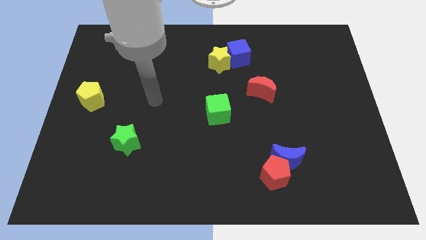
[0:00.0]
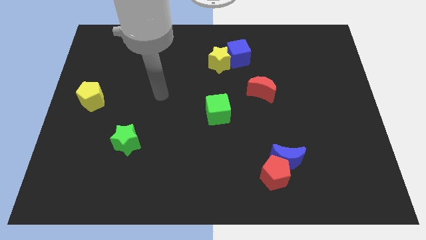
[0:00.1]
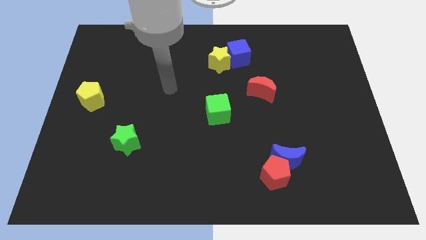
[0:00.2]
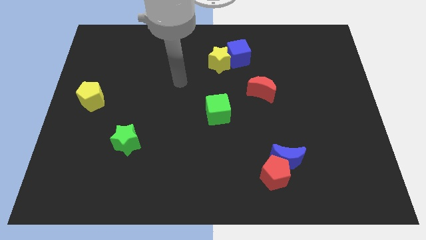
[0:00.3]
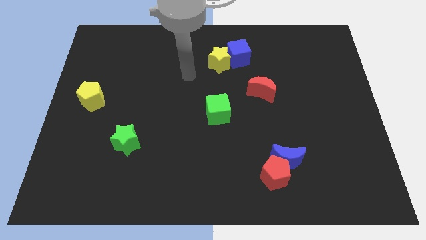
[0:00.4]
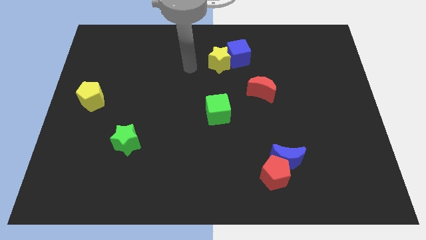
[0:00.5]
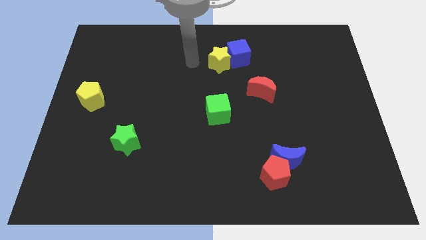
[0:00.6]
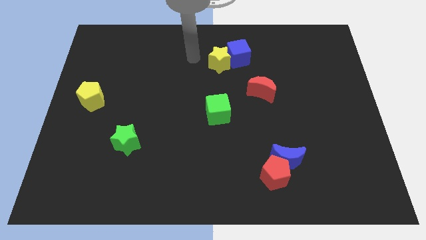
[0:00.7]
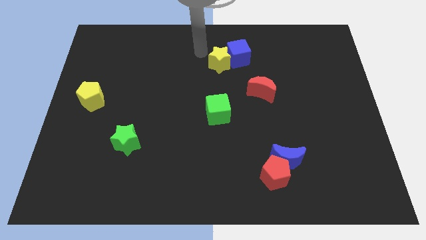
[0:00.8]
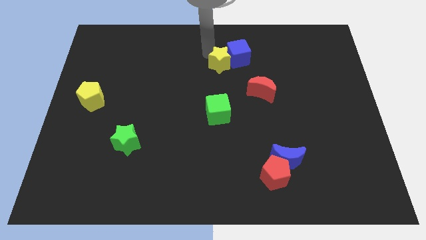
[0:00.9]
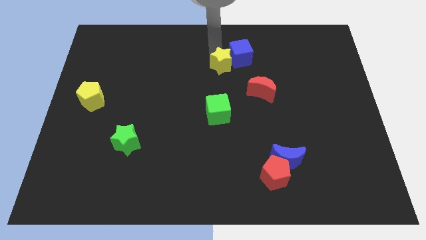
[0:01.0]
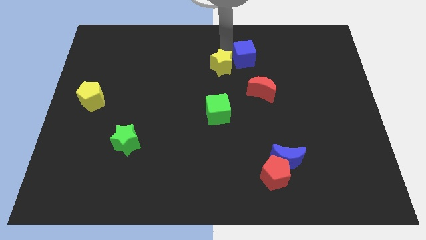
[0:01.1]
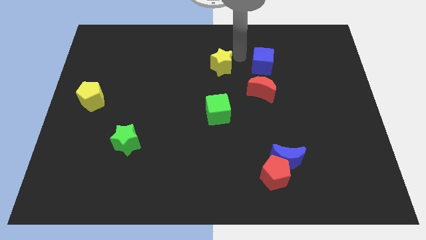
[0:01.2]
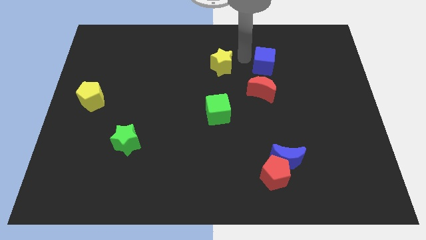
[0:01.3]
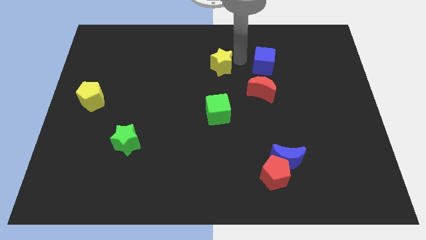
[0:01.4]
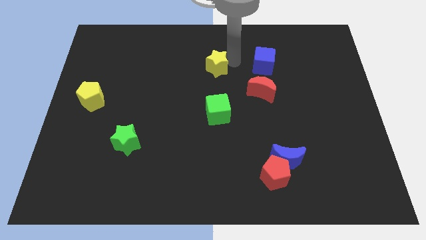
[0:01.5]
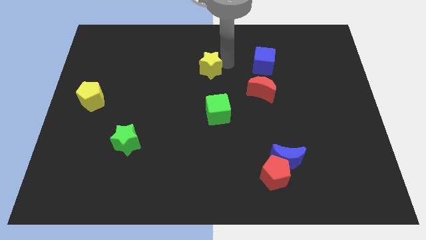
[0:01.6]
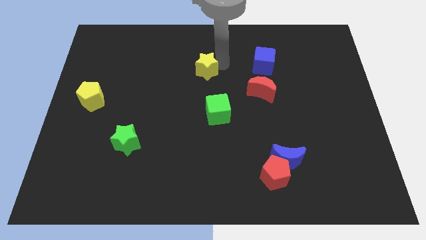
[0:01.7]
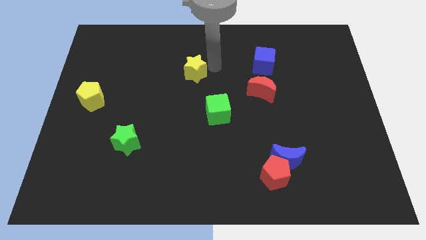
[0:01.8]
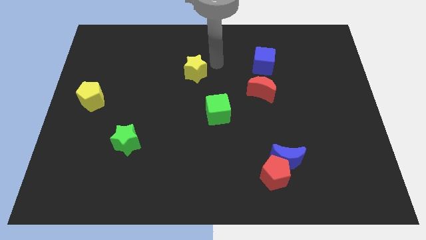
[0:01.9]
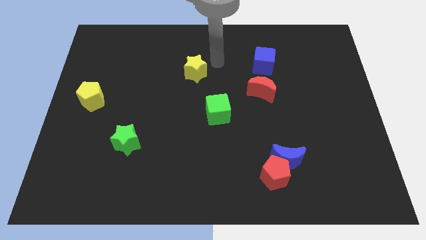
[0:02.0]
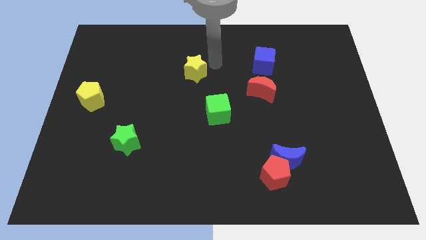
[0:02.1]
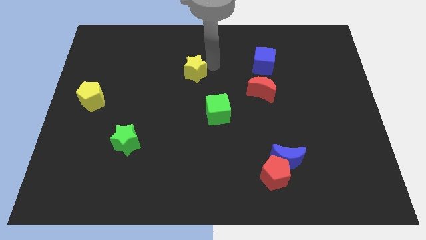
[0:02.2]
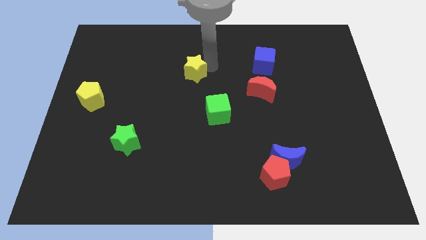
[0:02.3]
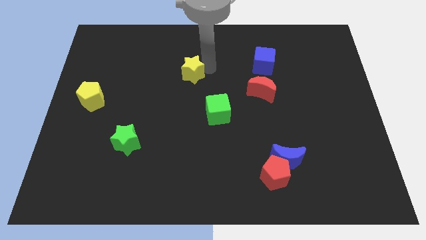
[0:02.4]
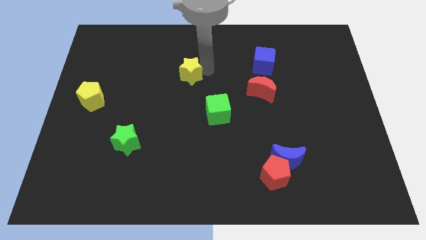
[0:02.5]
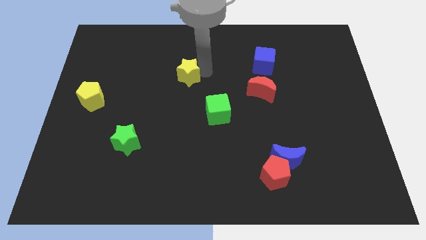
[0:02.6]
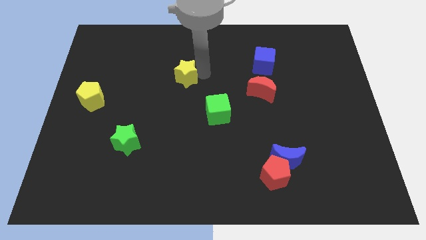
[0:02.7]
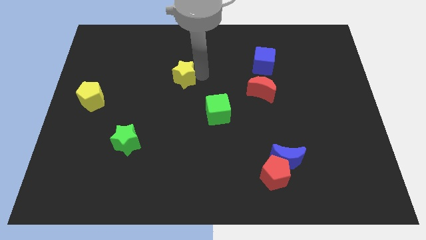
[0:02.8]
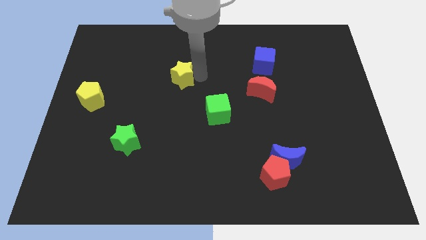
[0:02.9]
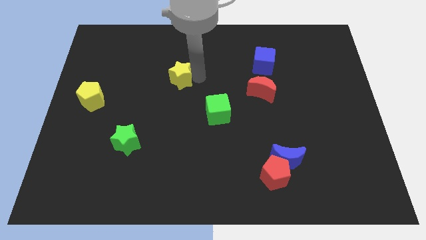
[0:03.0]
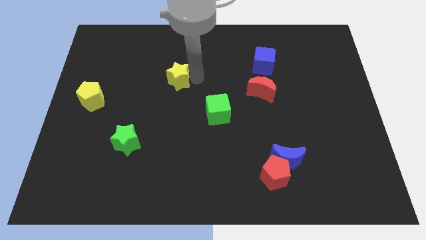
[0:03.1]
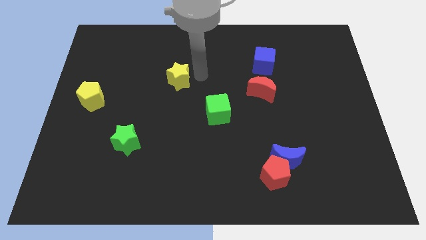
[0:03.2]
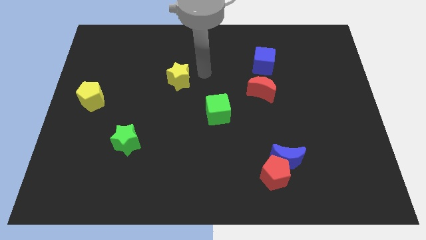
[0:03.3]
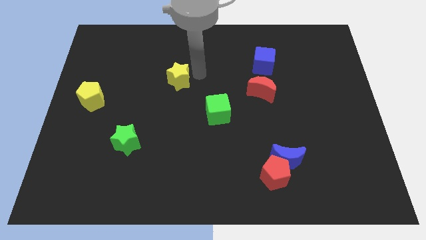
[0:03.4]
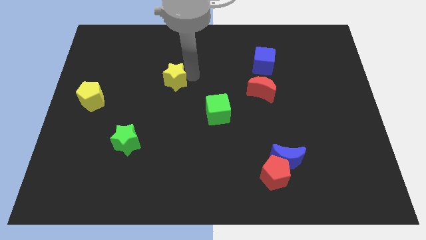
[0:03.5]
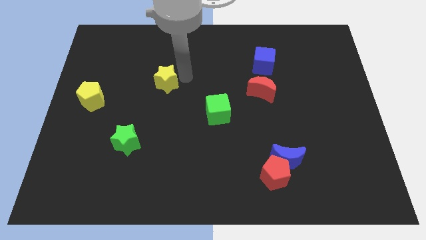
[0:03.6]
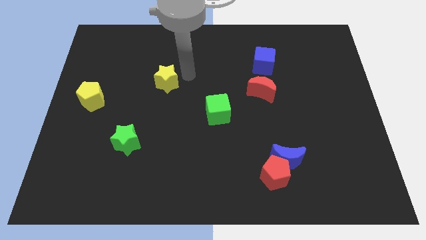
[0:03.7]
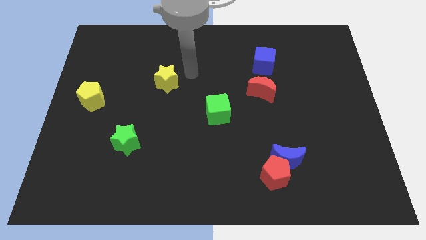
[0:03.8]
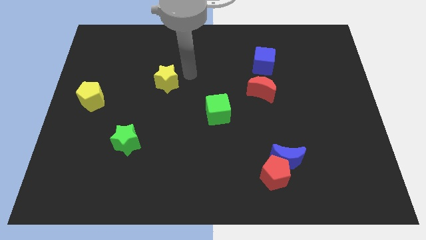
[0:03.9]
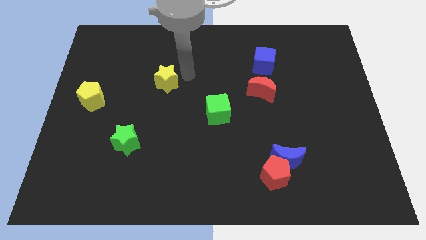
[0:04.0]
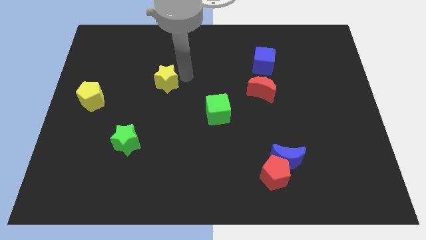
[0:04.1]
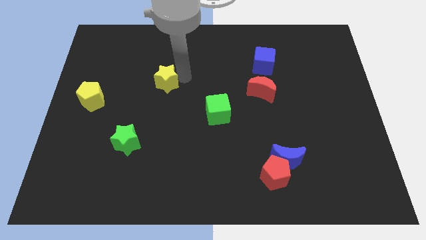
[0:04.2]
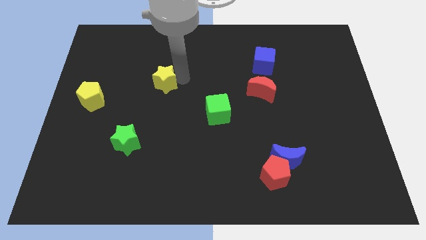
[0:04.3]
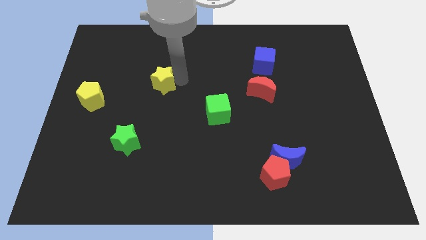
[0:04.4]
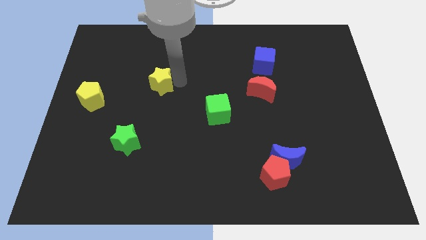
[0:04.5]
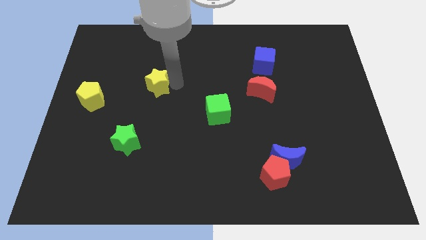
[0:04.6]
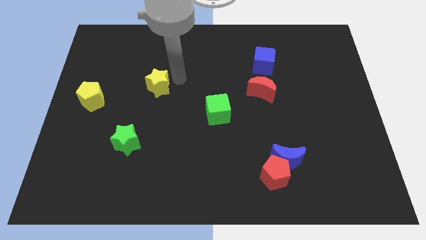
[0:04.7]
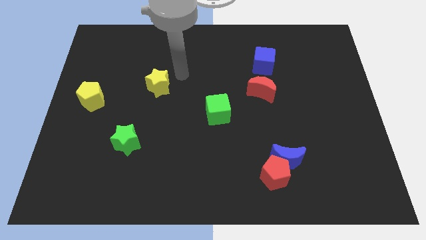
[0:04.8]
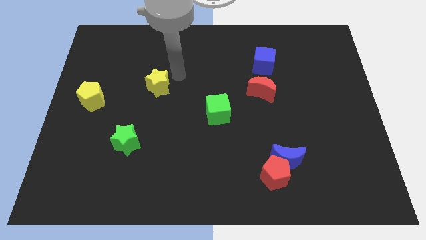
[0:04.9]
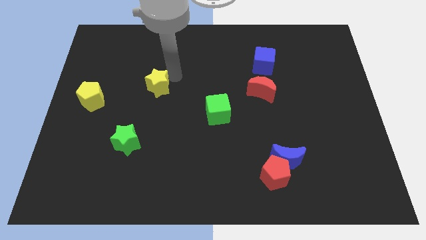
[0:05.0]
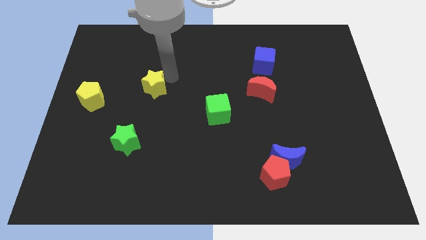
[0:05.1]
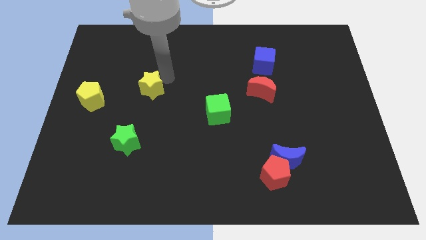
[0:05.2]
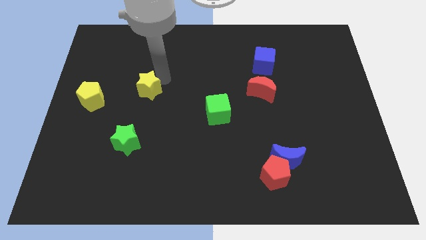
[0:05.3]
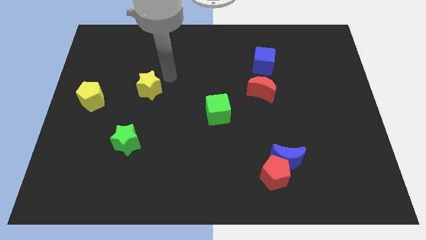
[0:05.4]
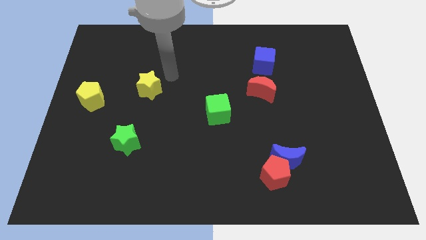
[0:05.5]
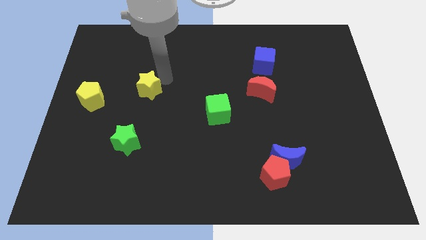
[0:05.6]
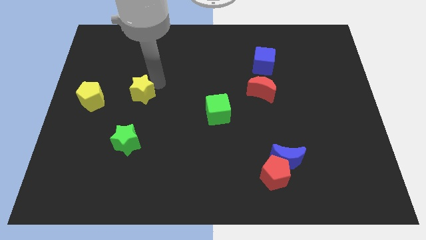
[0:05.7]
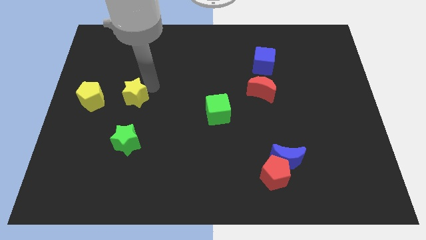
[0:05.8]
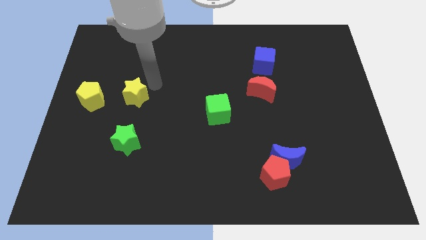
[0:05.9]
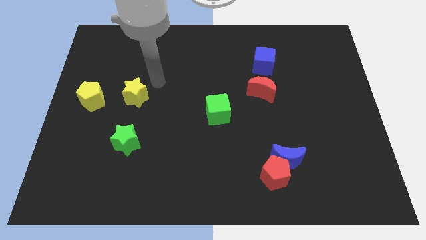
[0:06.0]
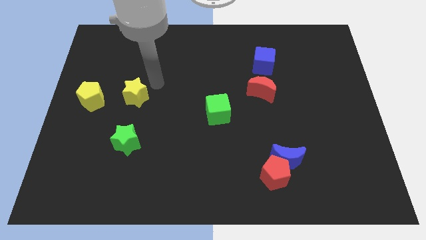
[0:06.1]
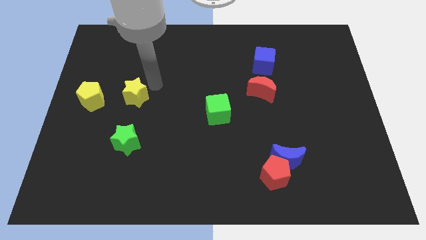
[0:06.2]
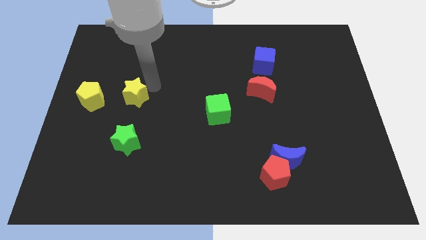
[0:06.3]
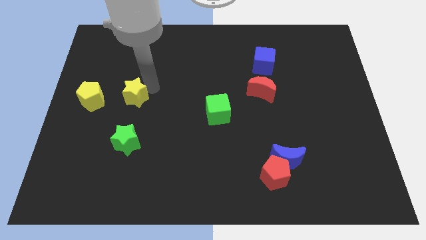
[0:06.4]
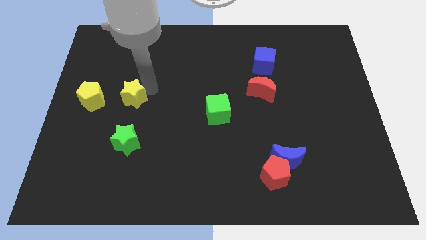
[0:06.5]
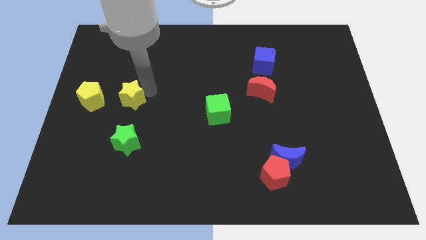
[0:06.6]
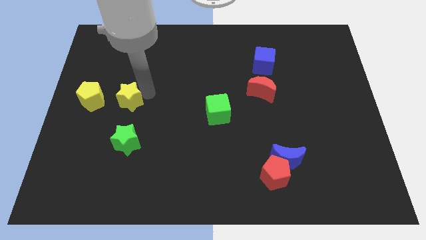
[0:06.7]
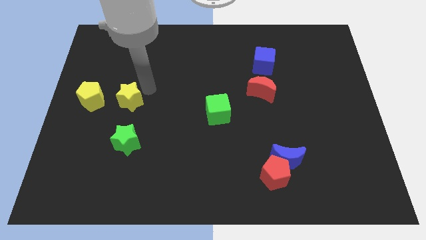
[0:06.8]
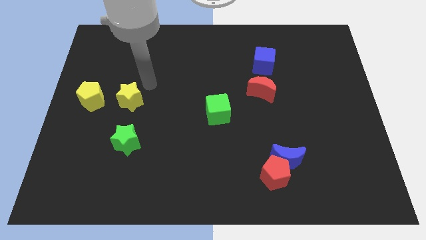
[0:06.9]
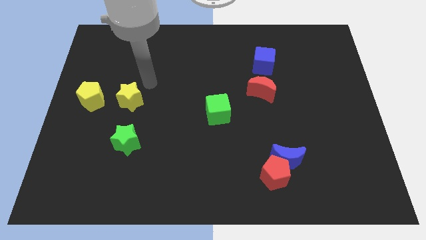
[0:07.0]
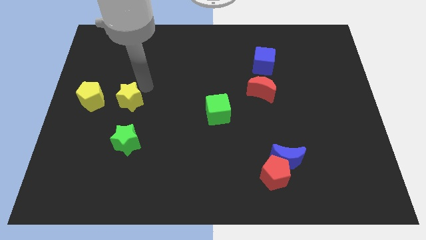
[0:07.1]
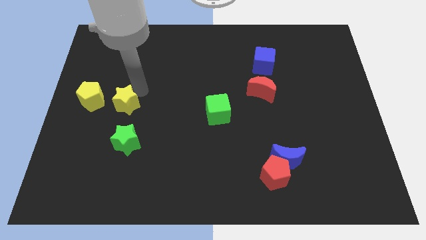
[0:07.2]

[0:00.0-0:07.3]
put the yellow star to the bottom right side of the yellow pentagon
